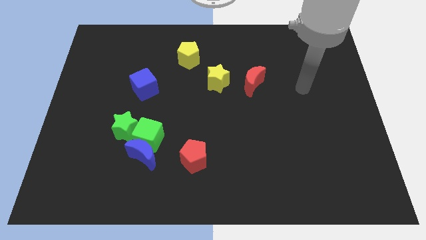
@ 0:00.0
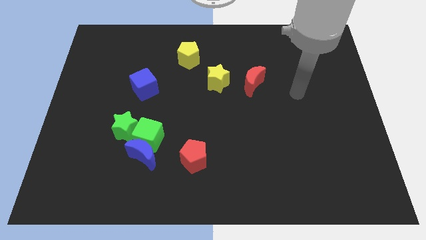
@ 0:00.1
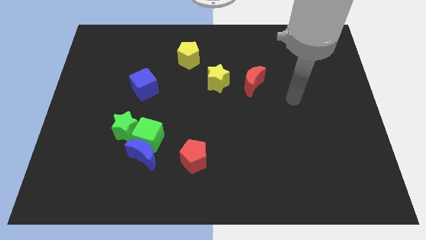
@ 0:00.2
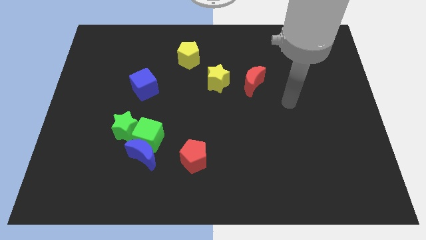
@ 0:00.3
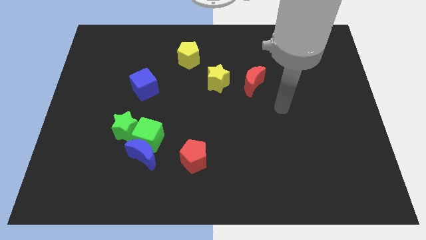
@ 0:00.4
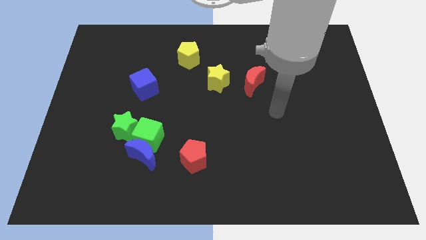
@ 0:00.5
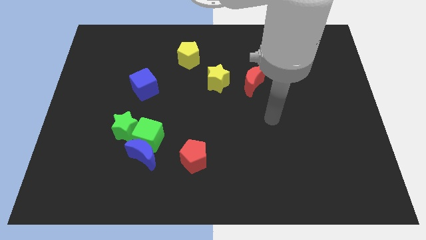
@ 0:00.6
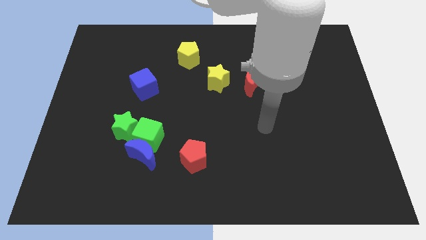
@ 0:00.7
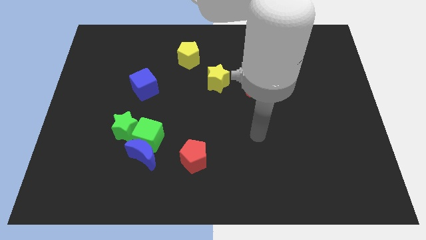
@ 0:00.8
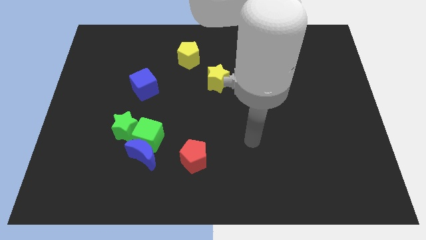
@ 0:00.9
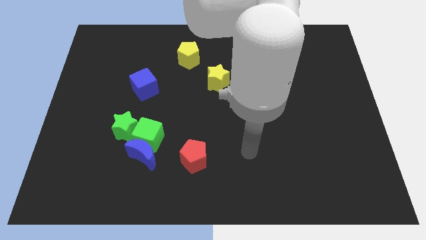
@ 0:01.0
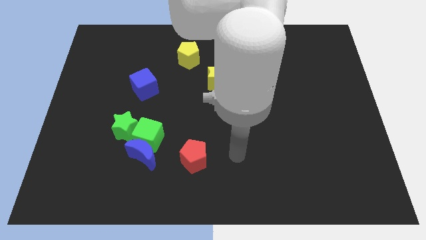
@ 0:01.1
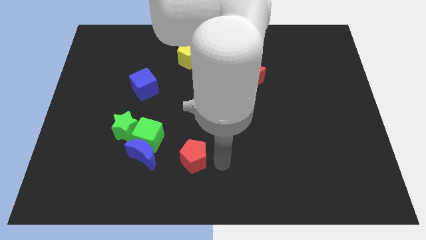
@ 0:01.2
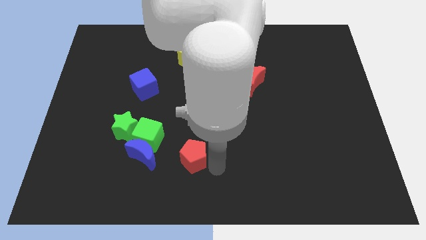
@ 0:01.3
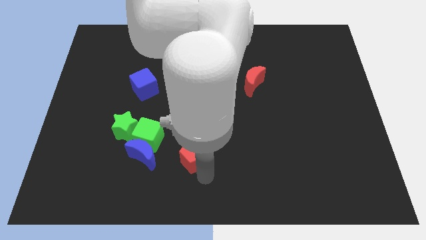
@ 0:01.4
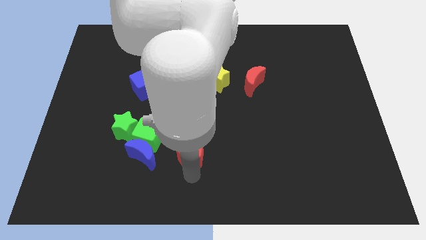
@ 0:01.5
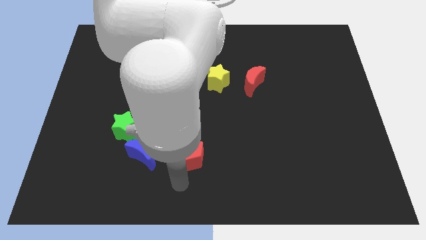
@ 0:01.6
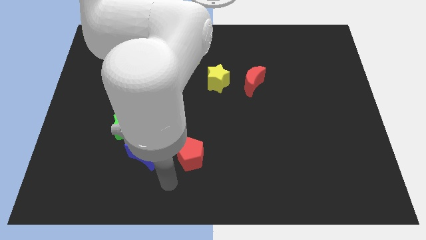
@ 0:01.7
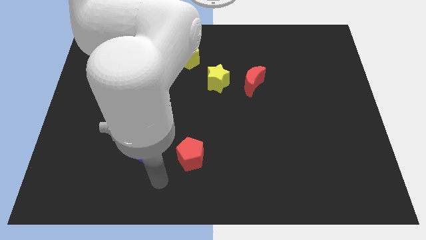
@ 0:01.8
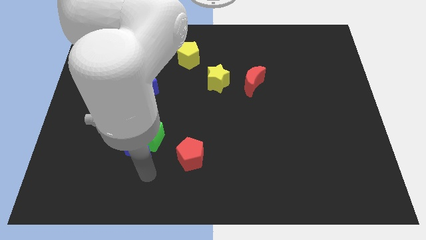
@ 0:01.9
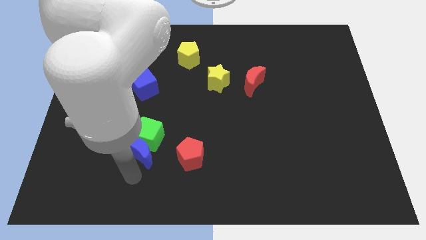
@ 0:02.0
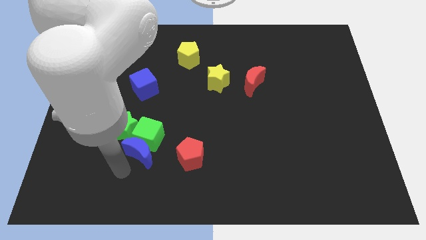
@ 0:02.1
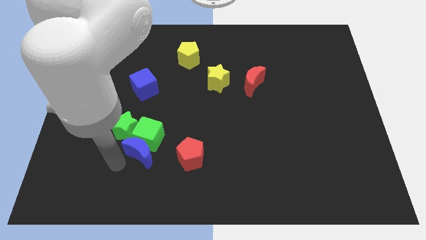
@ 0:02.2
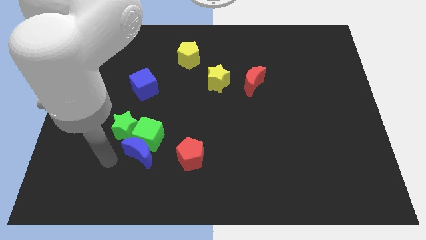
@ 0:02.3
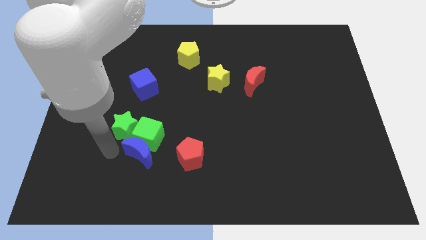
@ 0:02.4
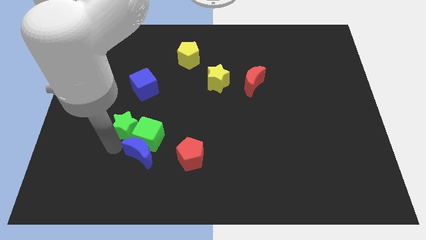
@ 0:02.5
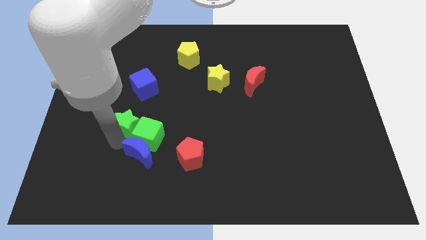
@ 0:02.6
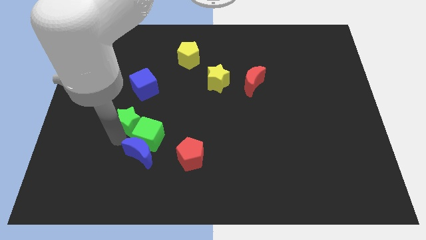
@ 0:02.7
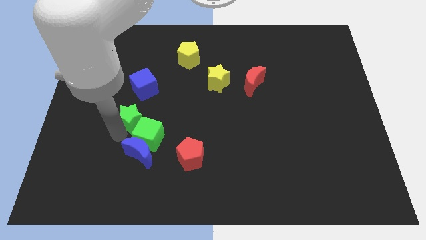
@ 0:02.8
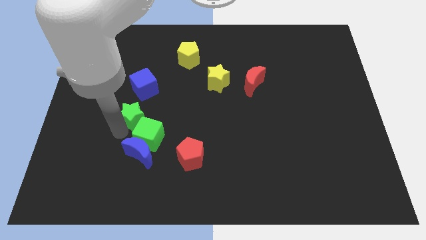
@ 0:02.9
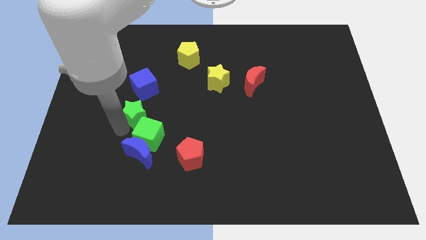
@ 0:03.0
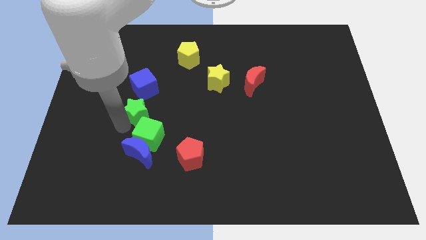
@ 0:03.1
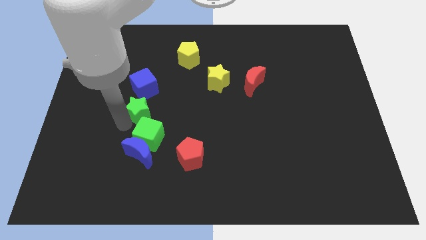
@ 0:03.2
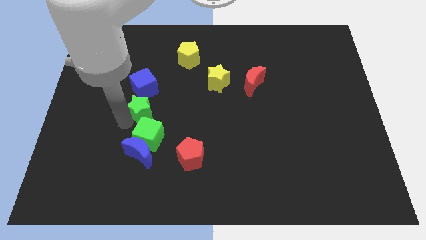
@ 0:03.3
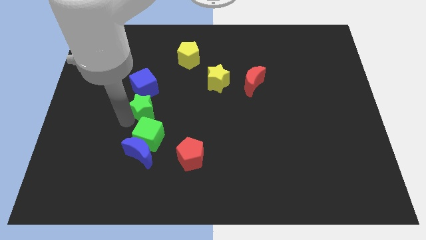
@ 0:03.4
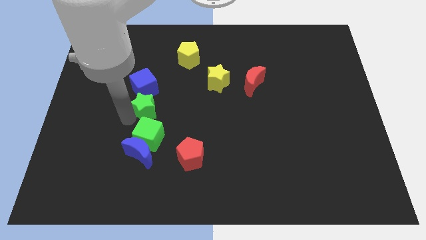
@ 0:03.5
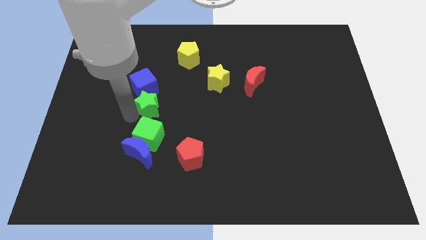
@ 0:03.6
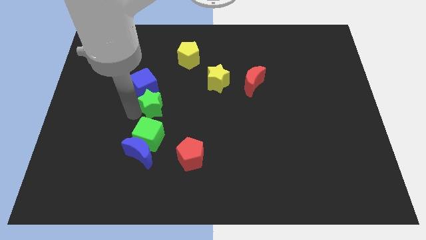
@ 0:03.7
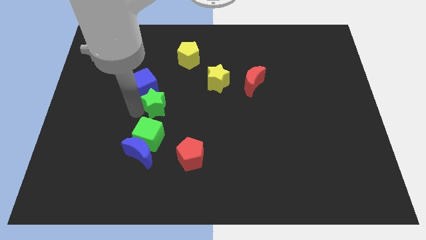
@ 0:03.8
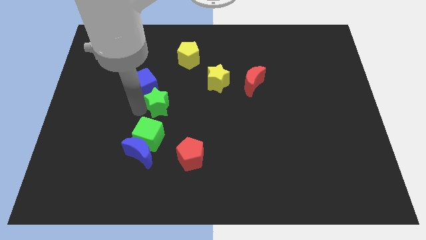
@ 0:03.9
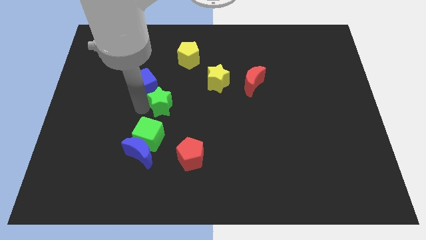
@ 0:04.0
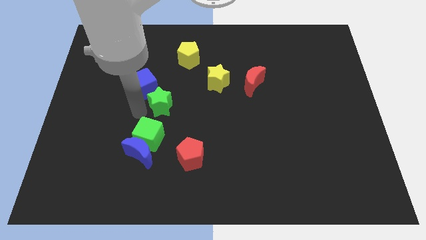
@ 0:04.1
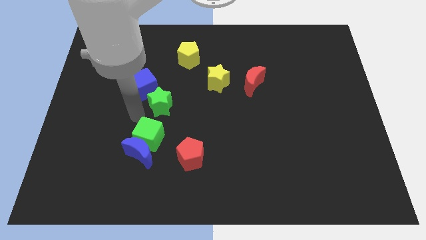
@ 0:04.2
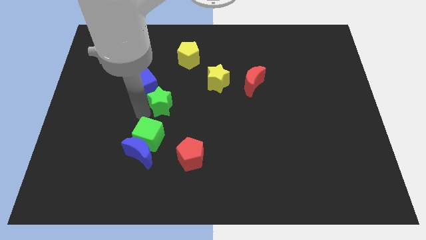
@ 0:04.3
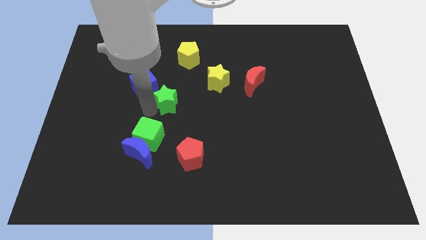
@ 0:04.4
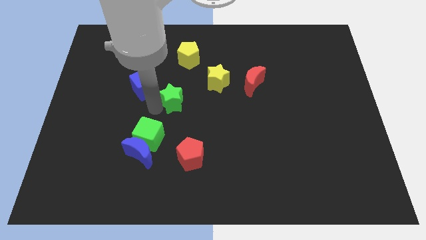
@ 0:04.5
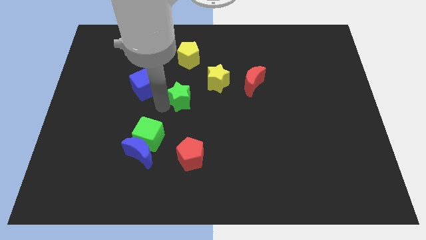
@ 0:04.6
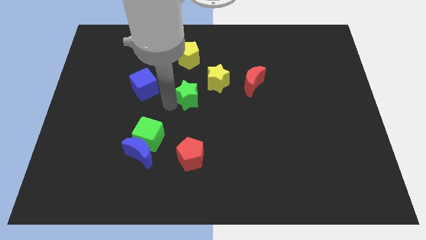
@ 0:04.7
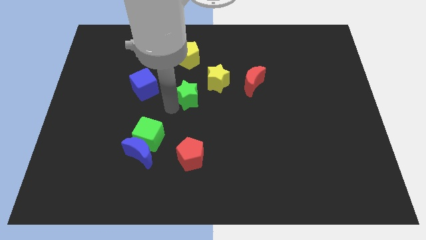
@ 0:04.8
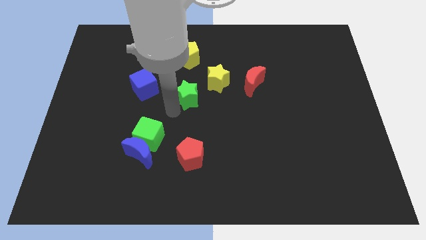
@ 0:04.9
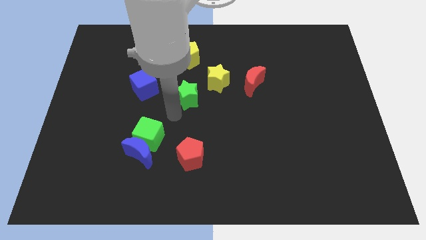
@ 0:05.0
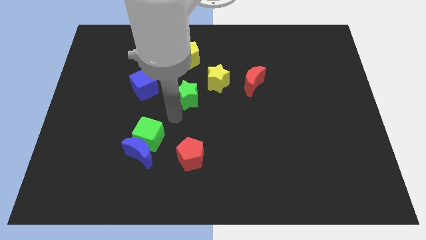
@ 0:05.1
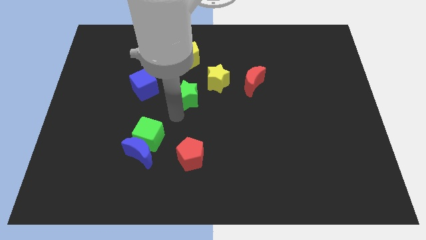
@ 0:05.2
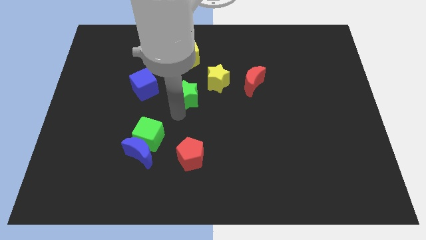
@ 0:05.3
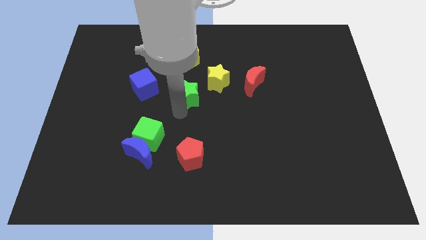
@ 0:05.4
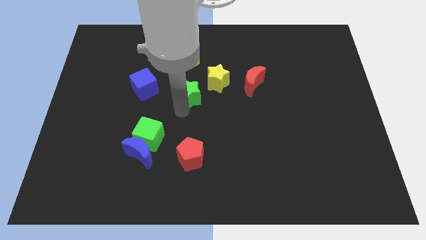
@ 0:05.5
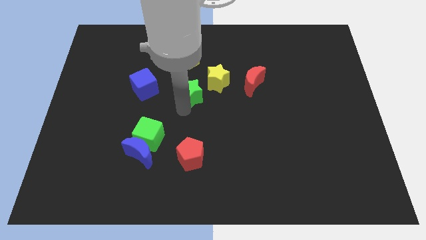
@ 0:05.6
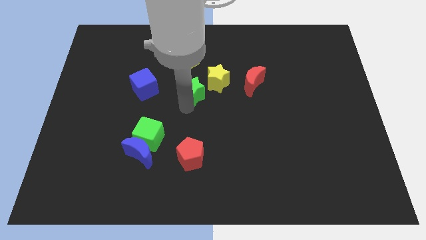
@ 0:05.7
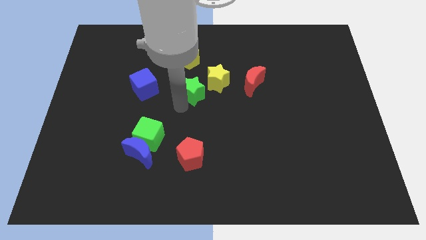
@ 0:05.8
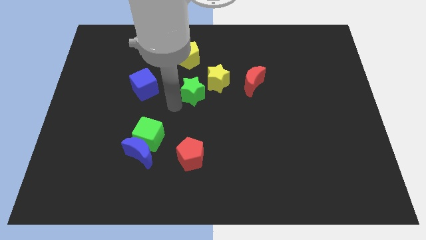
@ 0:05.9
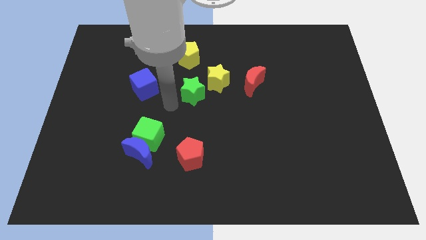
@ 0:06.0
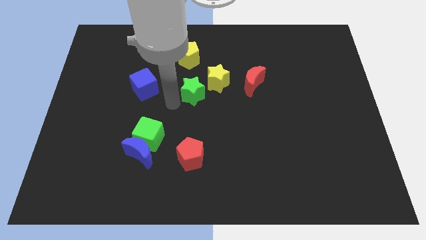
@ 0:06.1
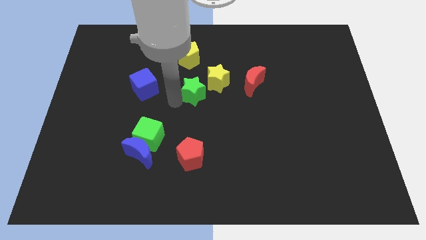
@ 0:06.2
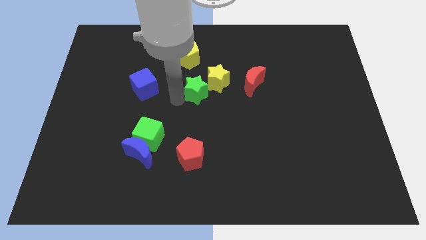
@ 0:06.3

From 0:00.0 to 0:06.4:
slide the green star towards the yellow star
